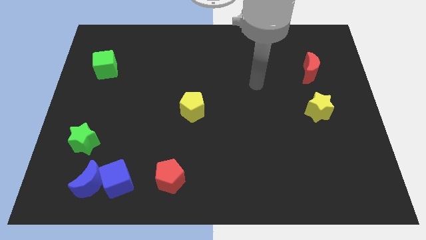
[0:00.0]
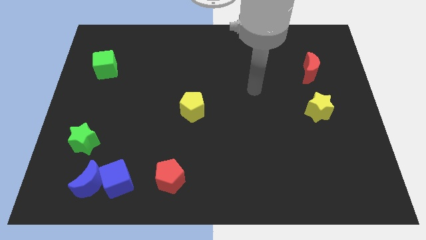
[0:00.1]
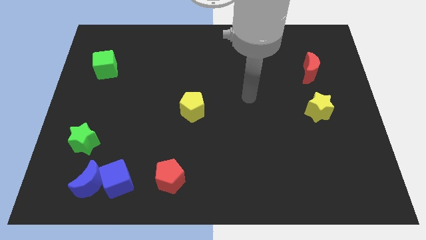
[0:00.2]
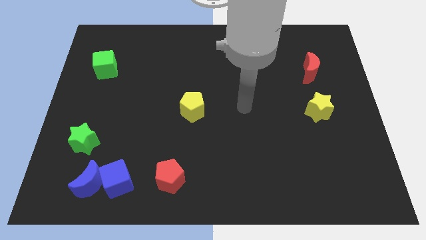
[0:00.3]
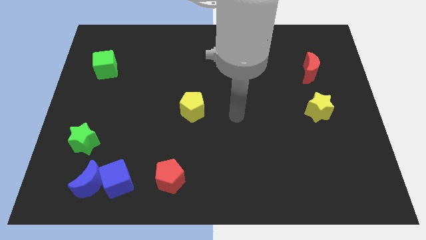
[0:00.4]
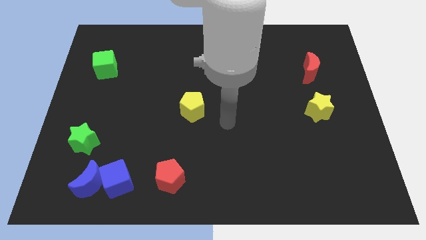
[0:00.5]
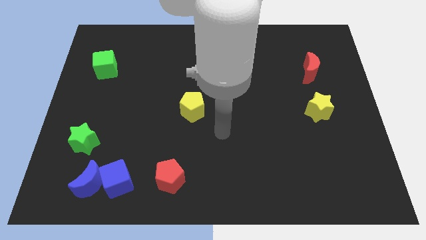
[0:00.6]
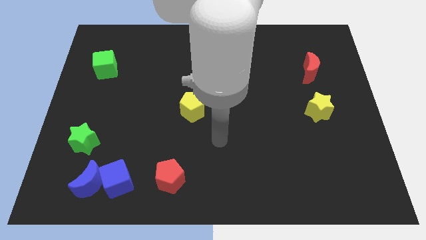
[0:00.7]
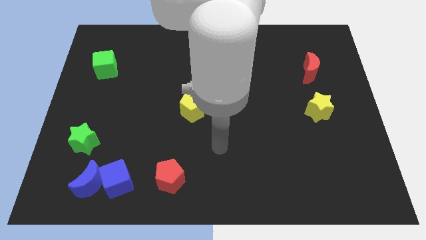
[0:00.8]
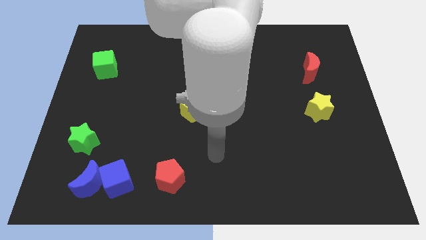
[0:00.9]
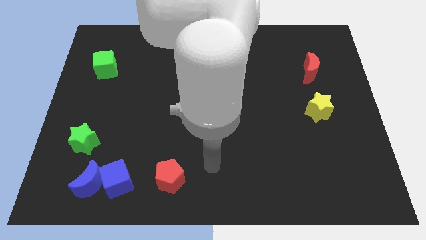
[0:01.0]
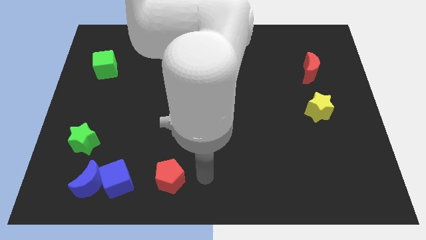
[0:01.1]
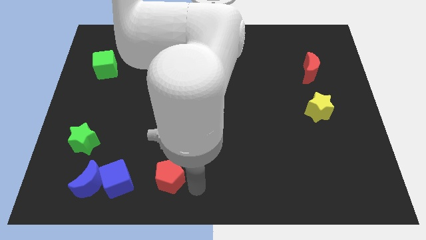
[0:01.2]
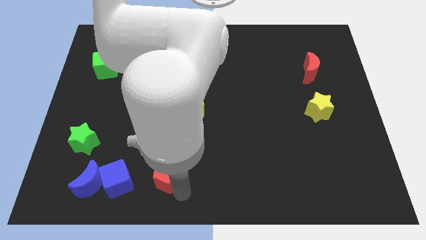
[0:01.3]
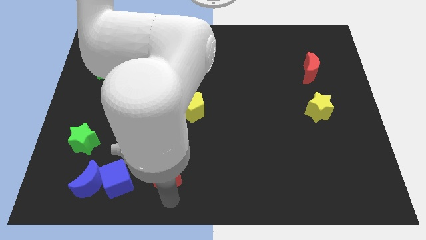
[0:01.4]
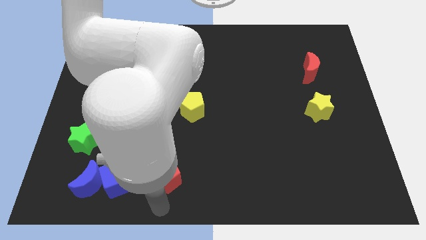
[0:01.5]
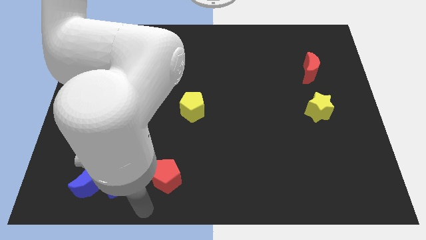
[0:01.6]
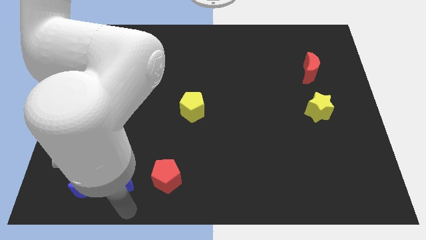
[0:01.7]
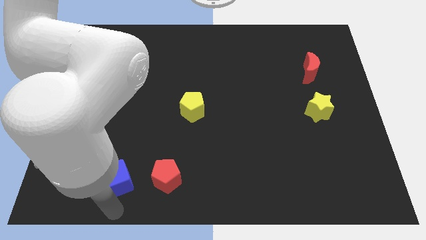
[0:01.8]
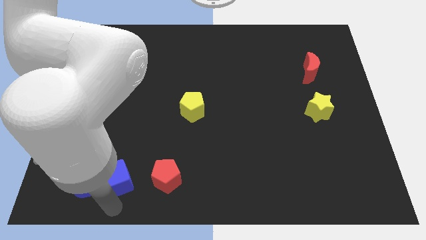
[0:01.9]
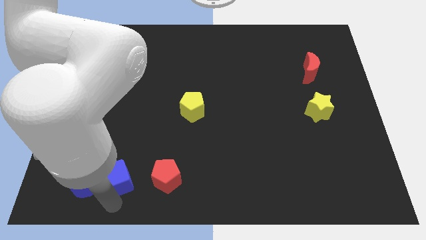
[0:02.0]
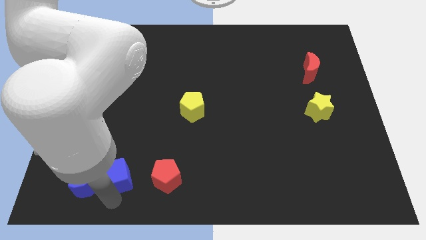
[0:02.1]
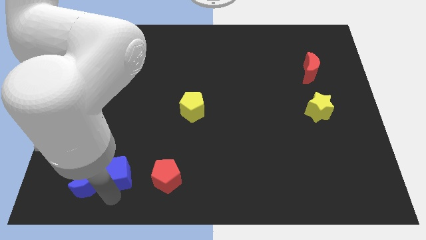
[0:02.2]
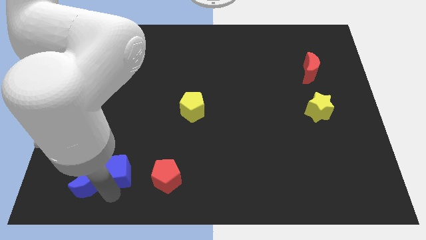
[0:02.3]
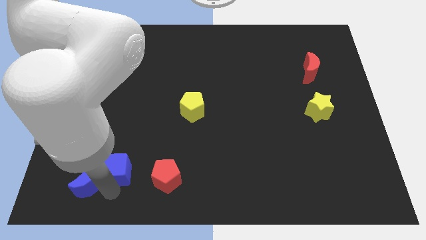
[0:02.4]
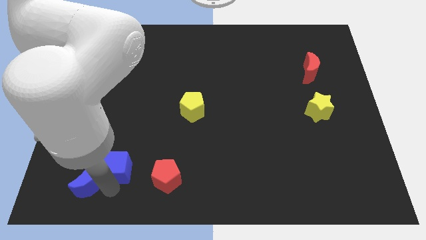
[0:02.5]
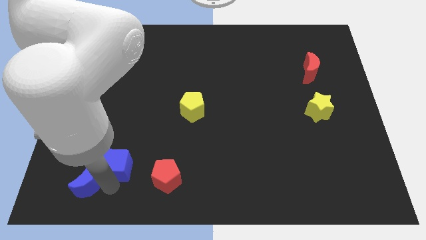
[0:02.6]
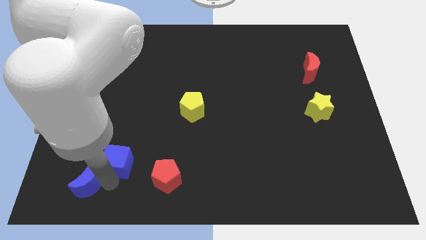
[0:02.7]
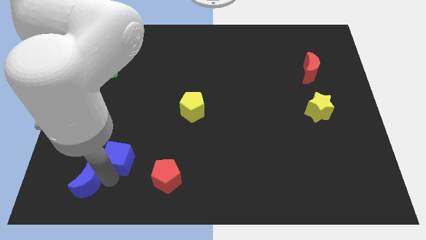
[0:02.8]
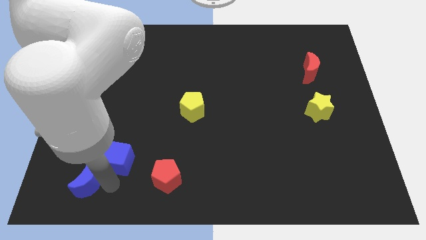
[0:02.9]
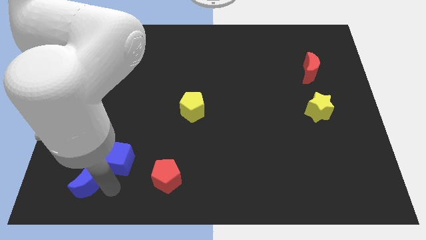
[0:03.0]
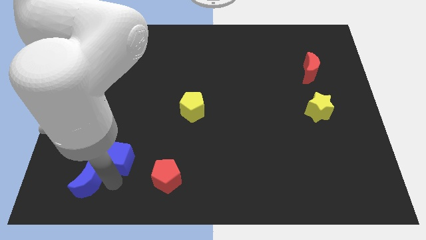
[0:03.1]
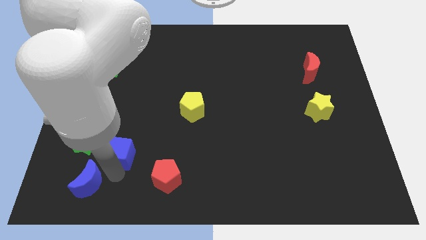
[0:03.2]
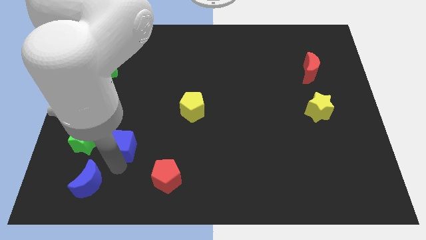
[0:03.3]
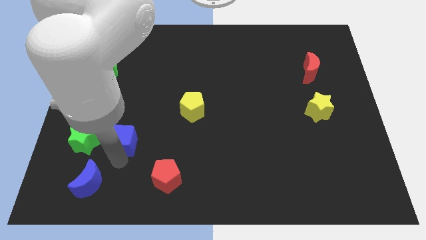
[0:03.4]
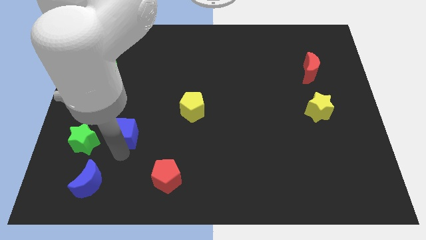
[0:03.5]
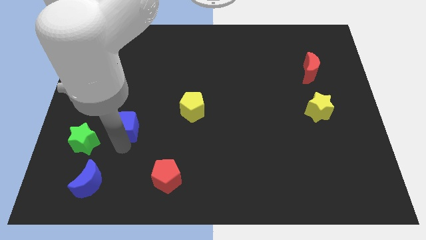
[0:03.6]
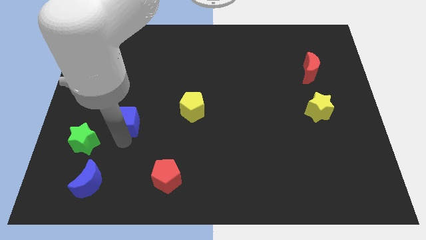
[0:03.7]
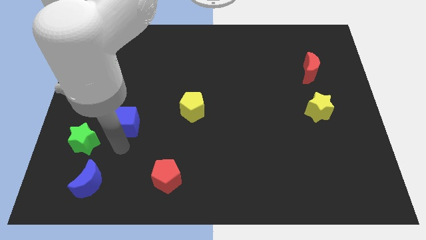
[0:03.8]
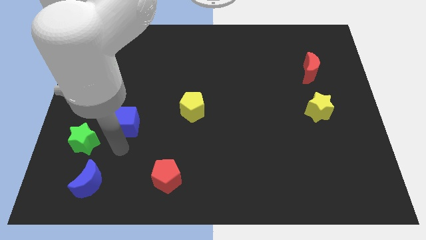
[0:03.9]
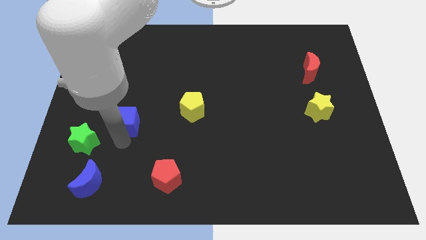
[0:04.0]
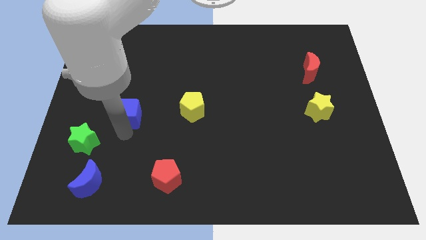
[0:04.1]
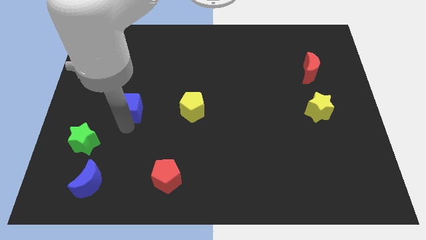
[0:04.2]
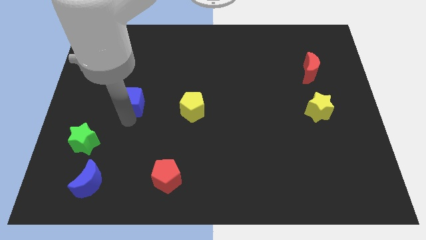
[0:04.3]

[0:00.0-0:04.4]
push the blue cube upwards

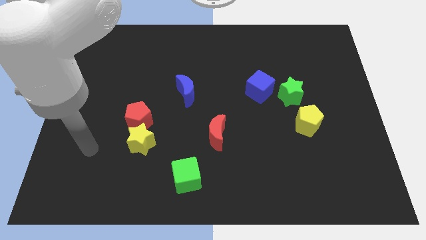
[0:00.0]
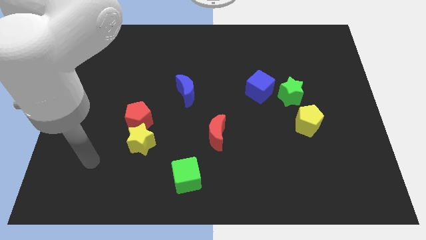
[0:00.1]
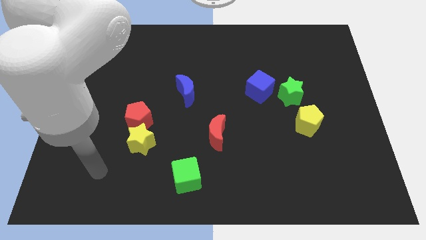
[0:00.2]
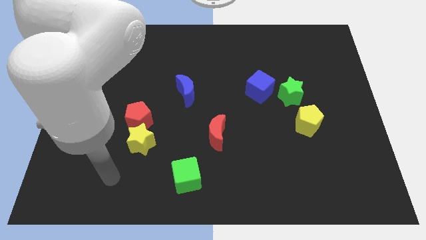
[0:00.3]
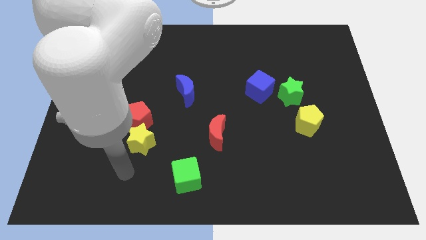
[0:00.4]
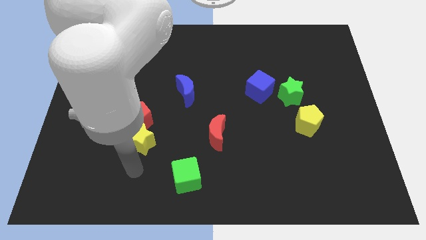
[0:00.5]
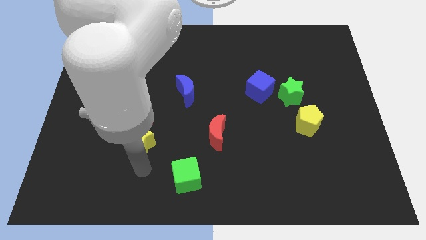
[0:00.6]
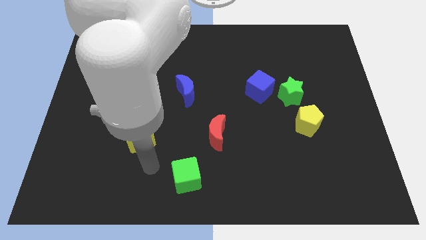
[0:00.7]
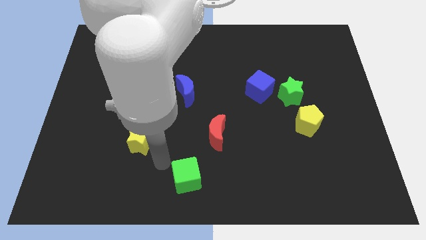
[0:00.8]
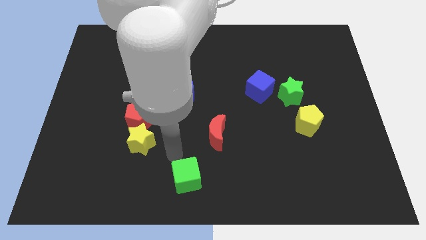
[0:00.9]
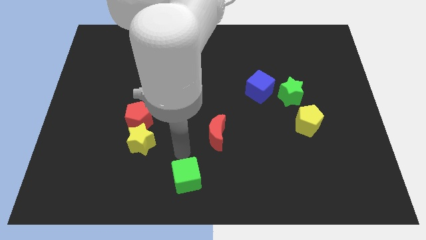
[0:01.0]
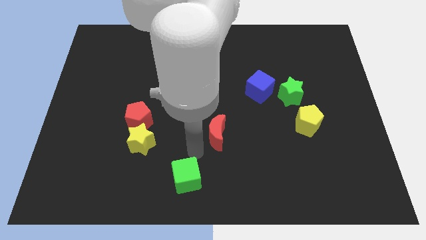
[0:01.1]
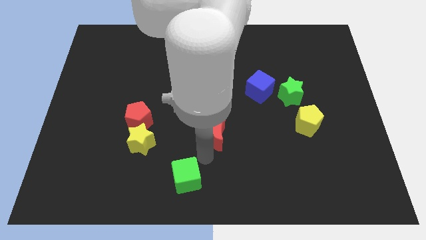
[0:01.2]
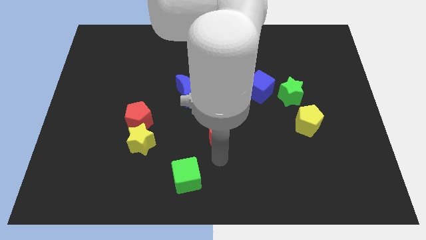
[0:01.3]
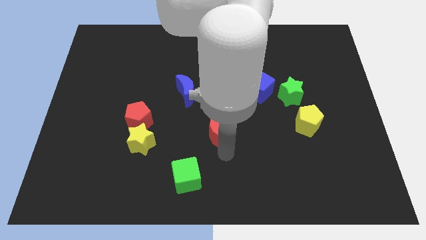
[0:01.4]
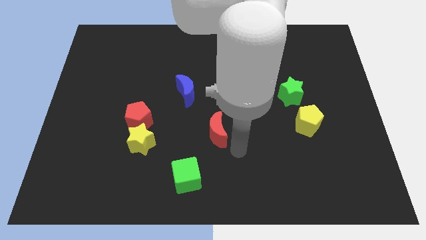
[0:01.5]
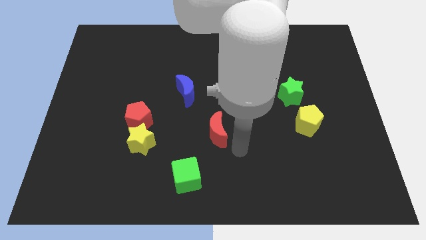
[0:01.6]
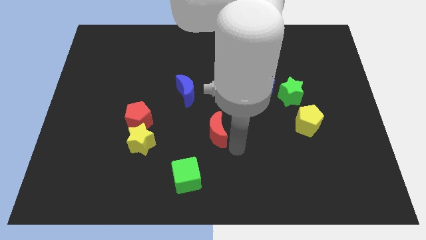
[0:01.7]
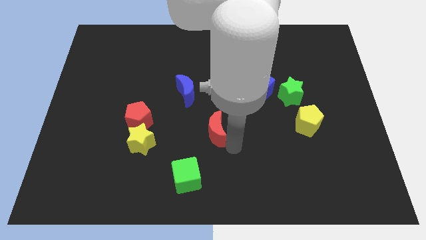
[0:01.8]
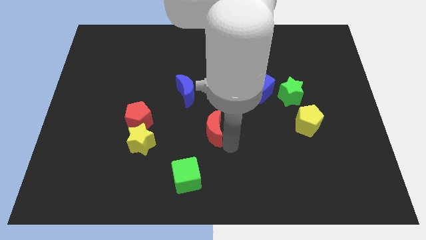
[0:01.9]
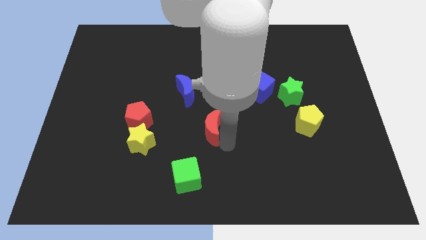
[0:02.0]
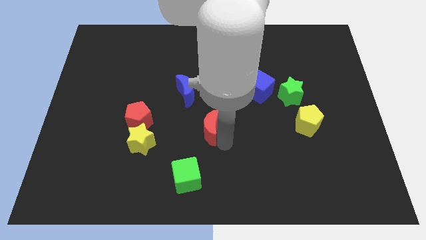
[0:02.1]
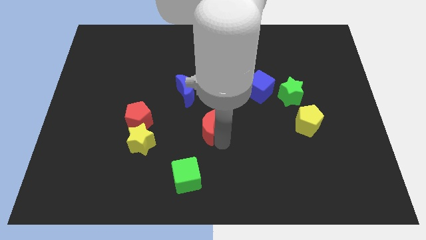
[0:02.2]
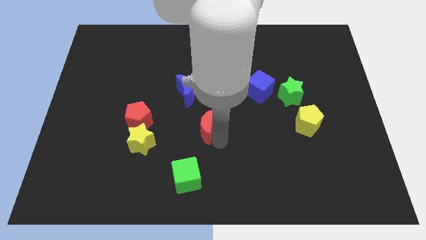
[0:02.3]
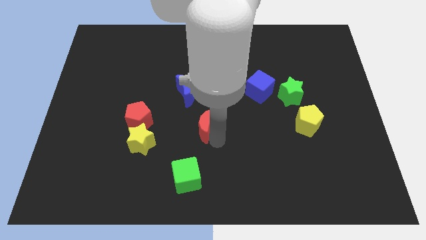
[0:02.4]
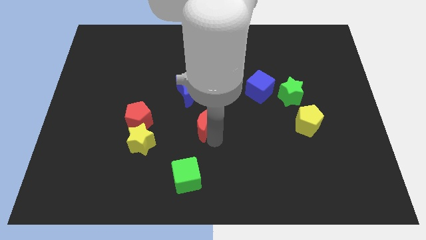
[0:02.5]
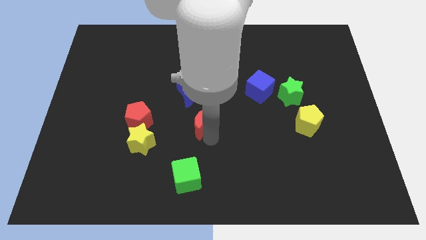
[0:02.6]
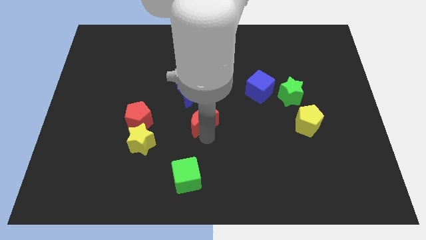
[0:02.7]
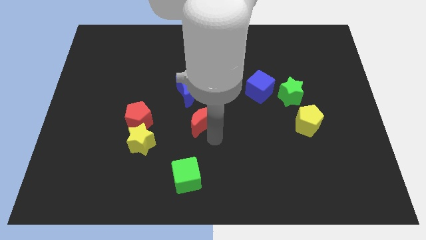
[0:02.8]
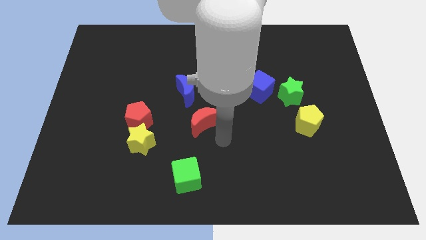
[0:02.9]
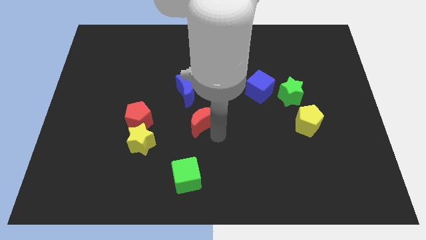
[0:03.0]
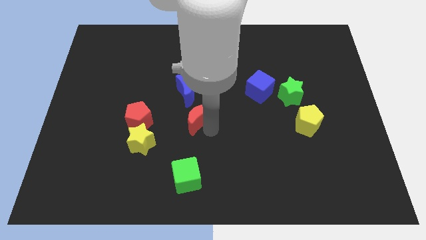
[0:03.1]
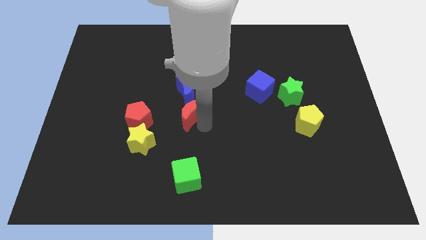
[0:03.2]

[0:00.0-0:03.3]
slide the red moon slightly up and then left

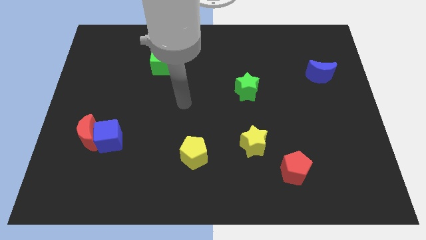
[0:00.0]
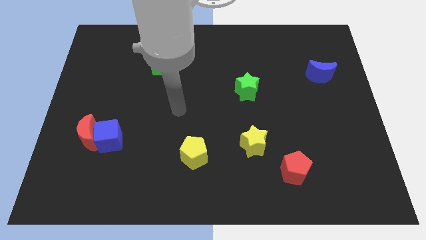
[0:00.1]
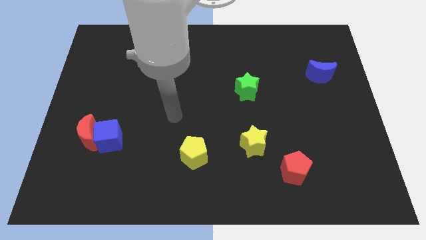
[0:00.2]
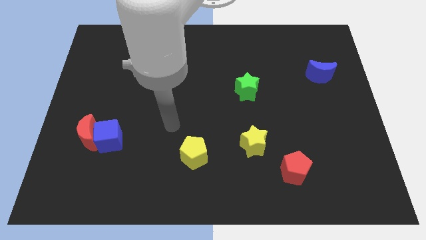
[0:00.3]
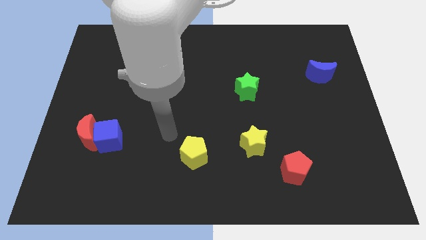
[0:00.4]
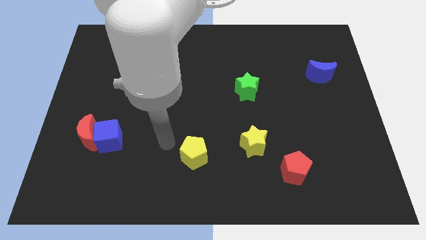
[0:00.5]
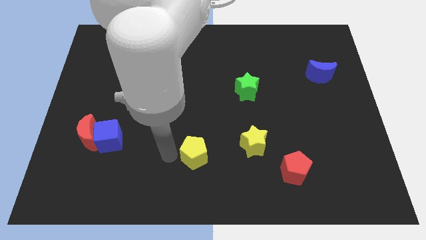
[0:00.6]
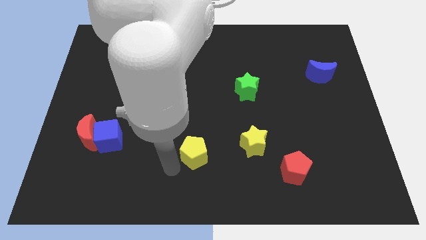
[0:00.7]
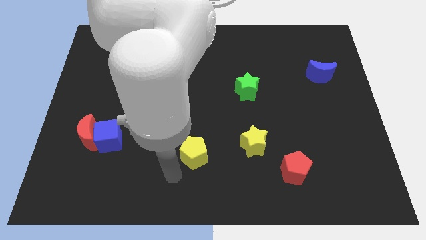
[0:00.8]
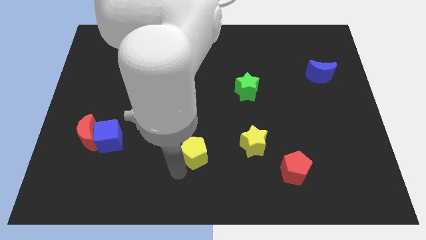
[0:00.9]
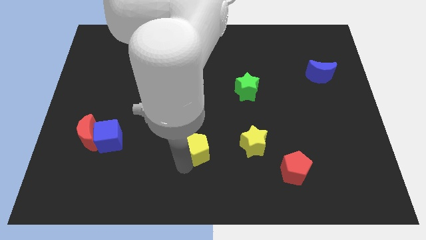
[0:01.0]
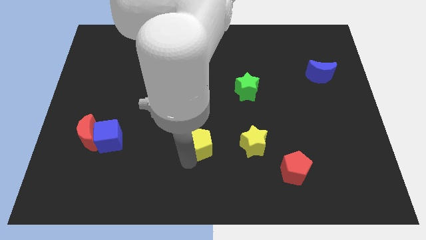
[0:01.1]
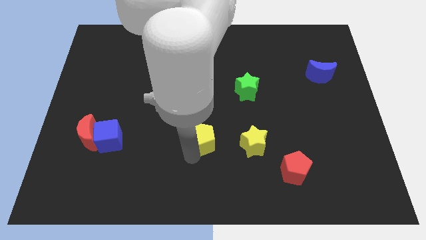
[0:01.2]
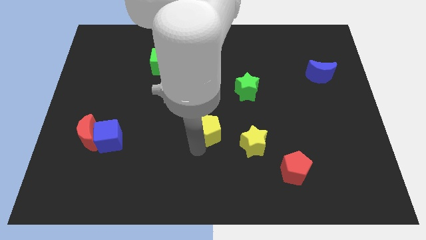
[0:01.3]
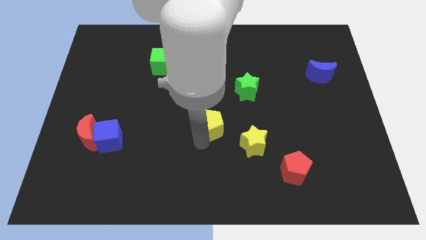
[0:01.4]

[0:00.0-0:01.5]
move the yellow pentagon somewhat diagonally upwards and right
